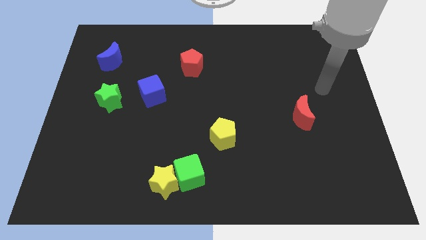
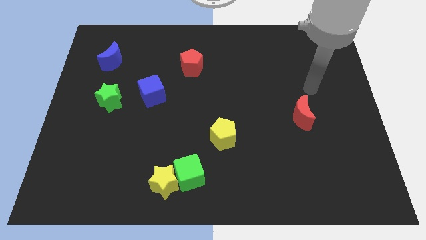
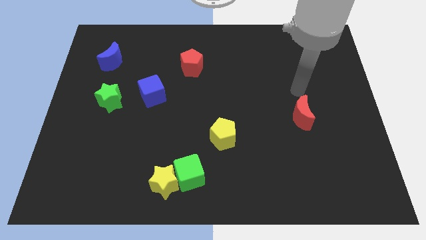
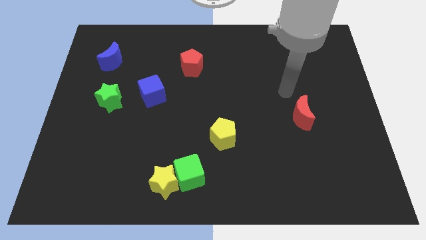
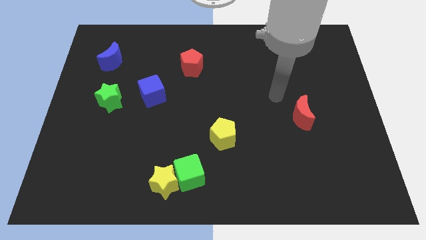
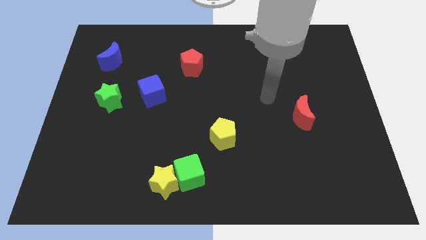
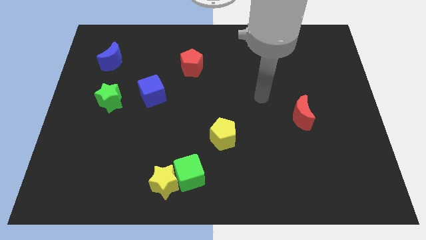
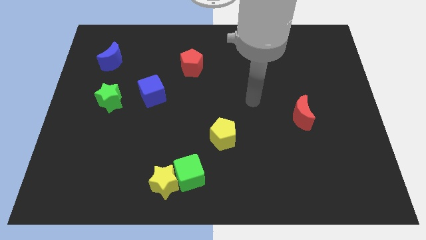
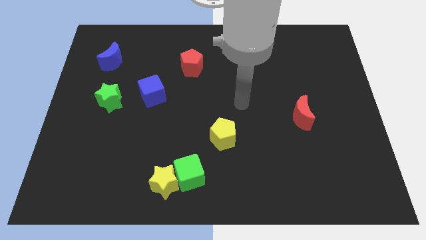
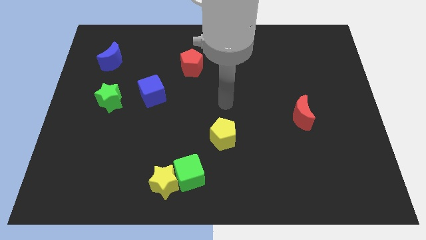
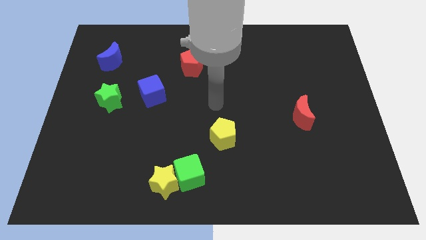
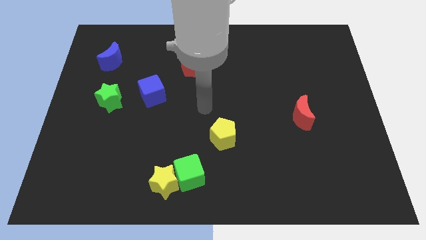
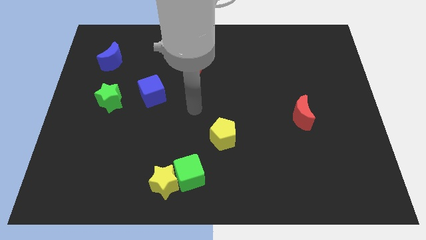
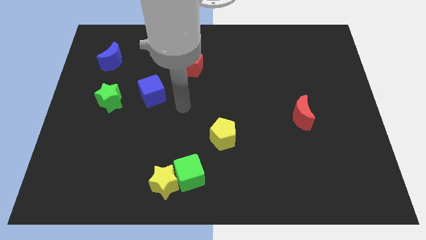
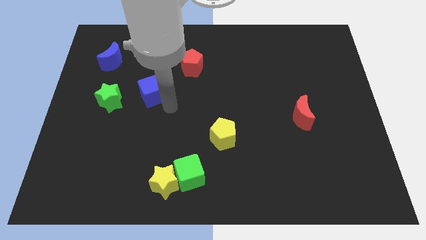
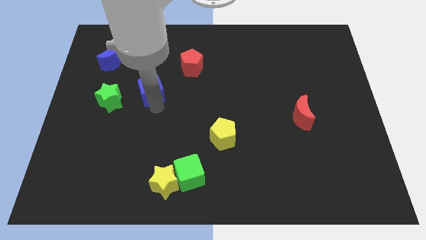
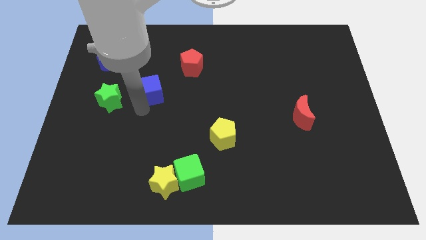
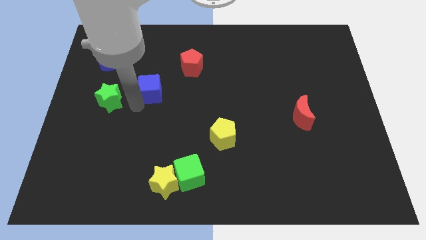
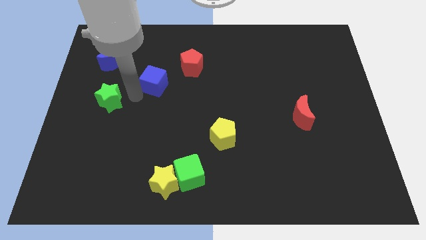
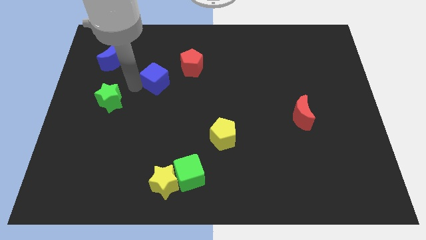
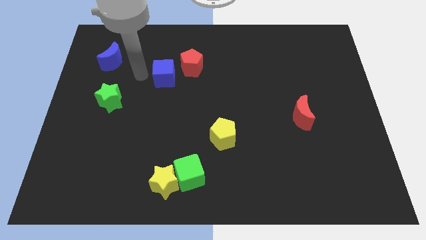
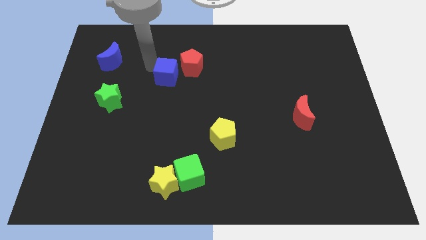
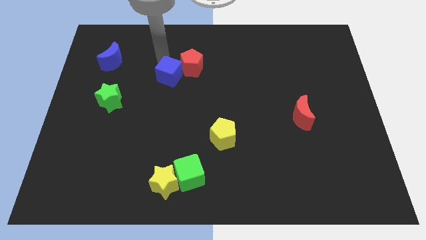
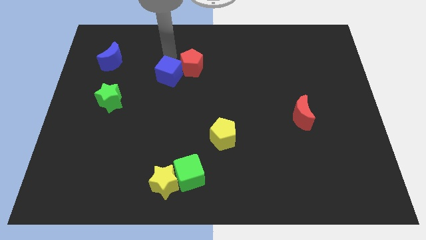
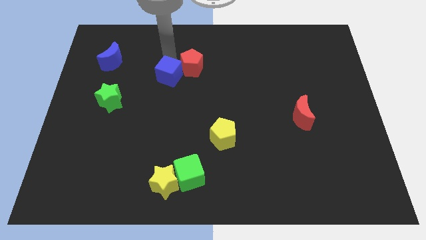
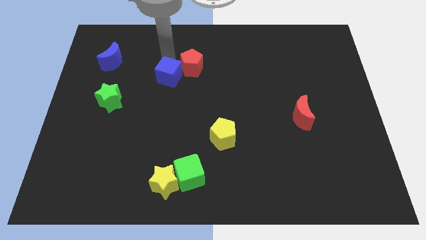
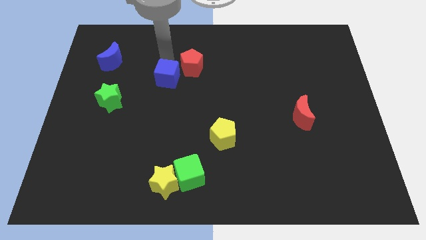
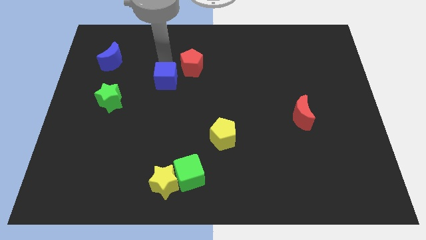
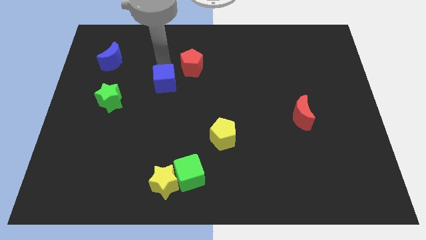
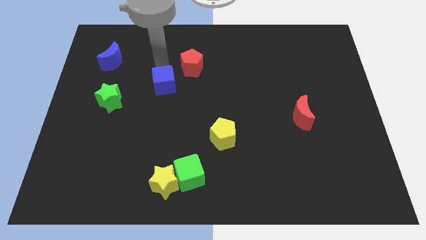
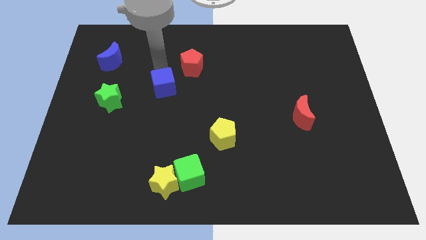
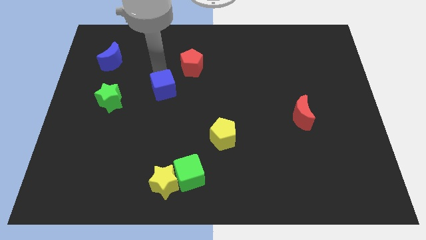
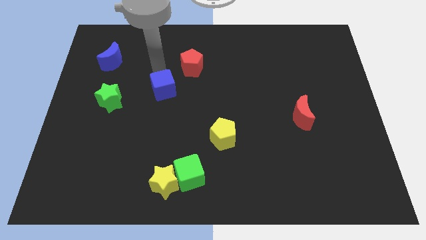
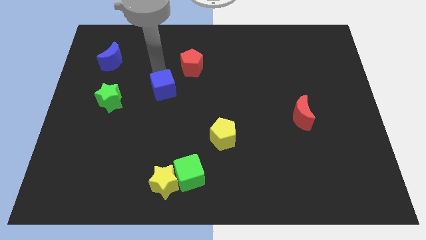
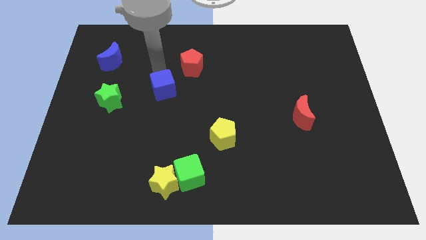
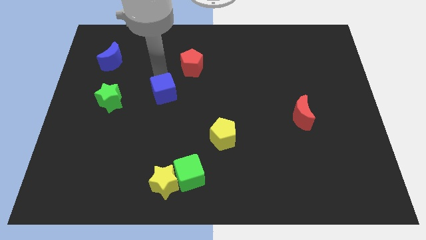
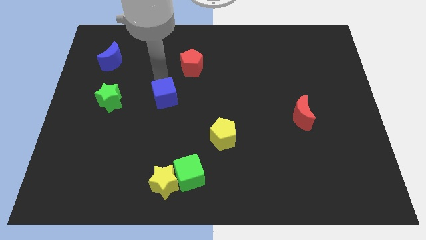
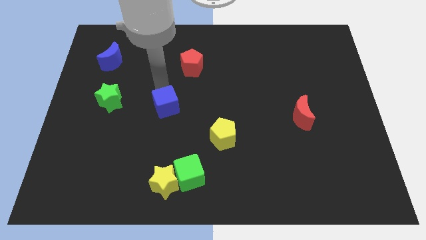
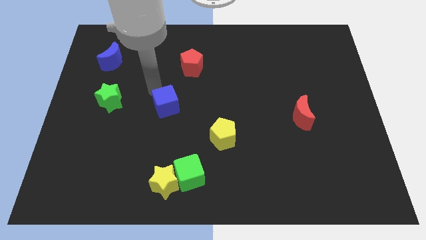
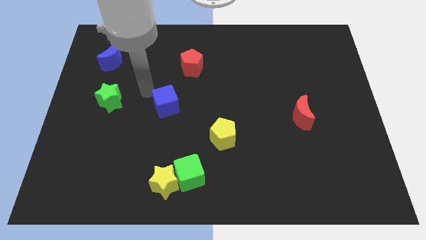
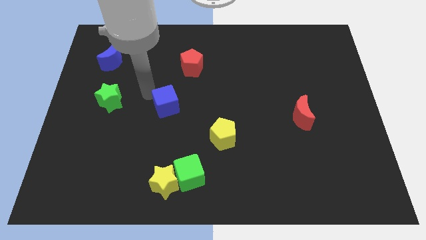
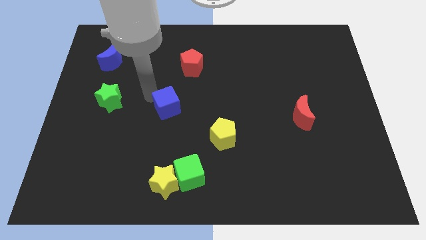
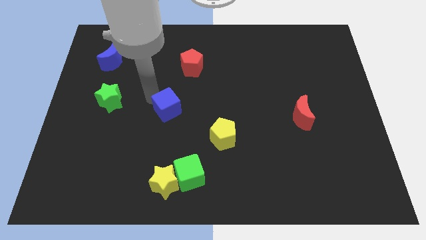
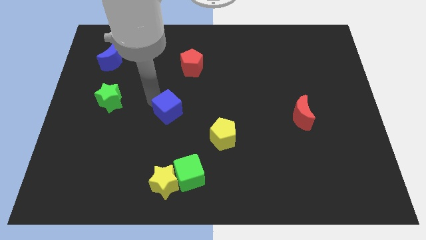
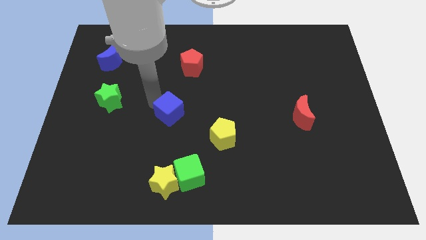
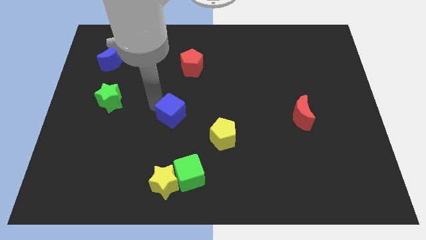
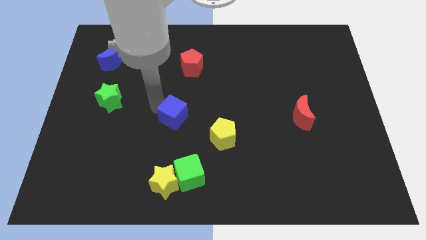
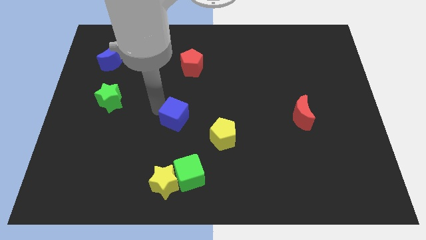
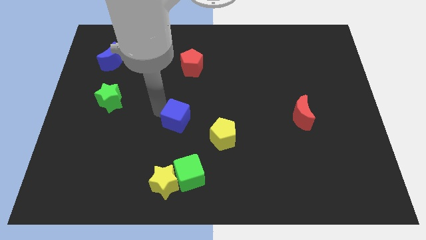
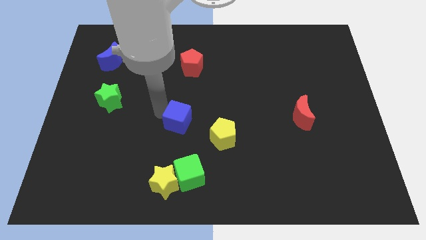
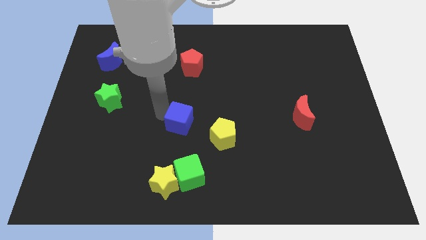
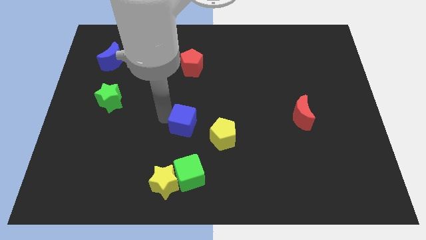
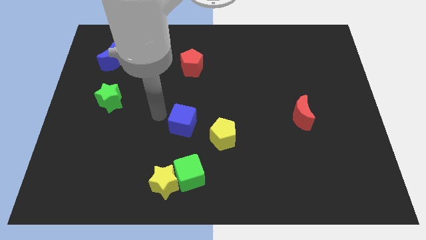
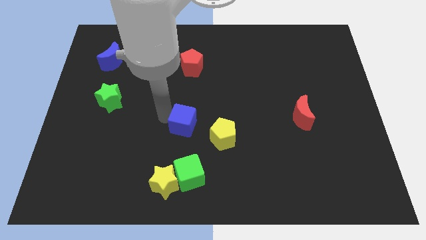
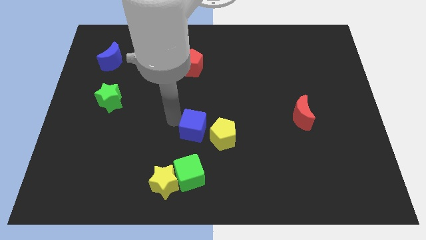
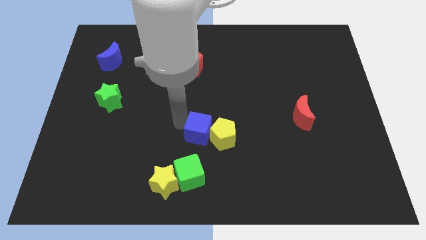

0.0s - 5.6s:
push the blue cube next to the yellow pentagon

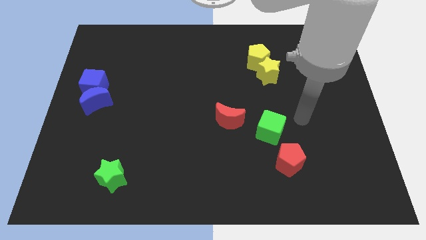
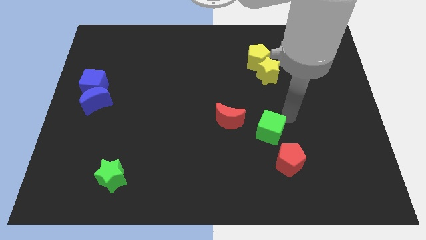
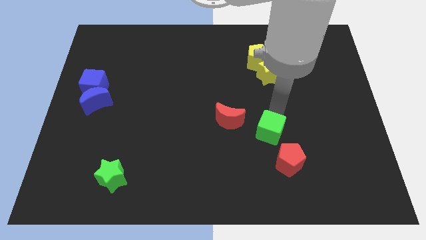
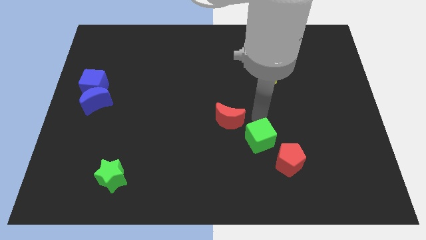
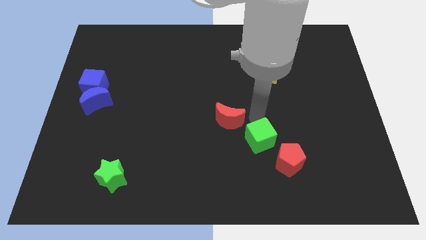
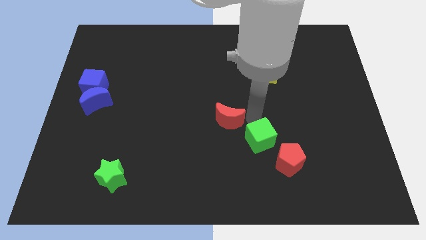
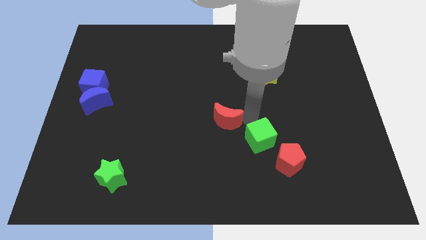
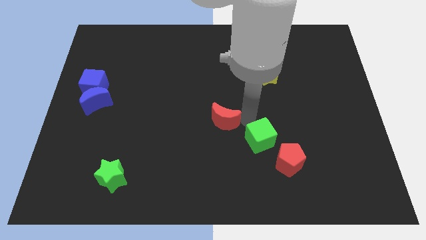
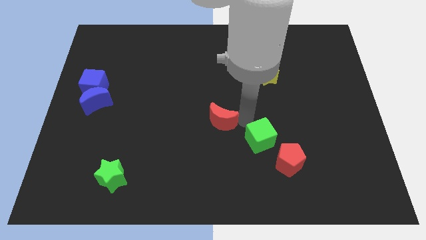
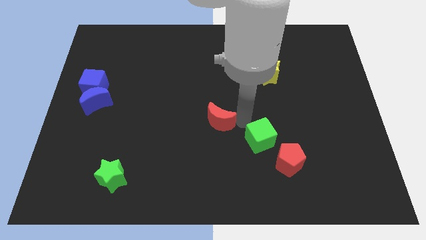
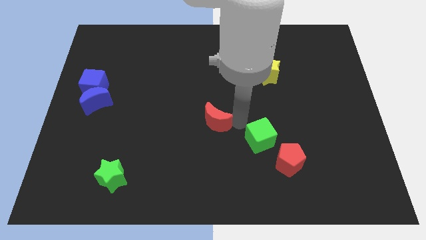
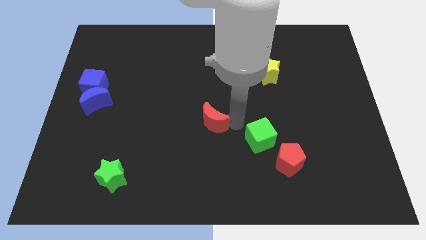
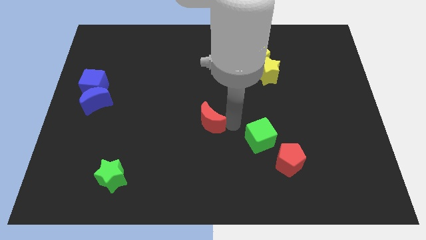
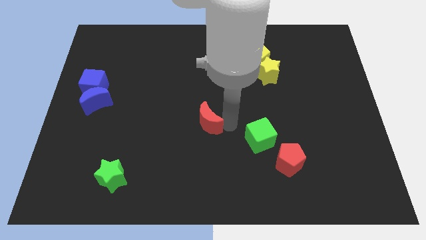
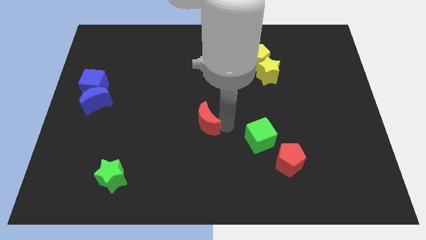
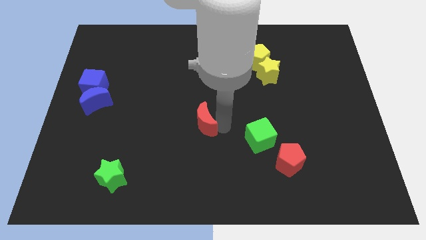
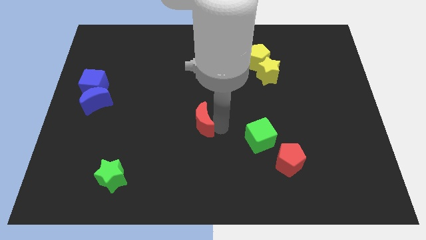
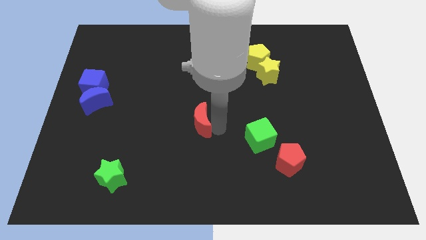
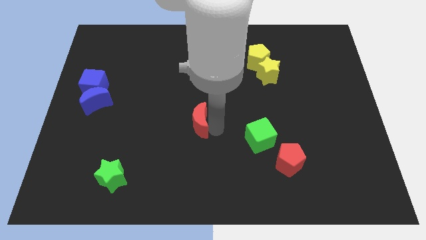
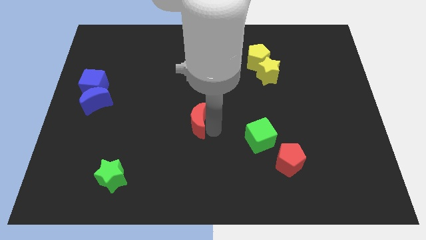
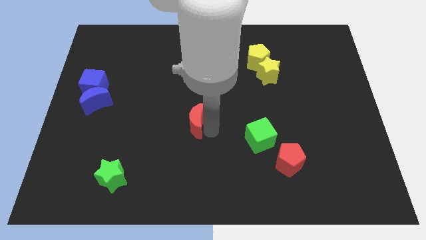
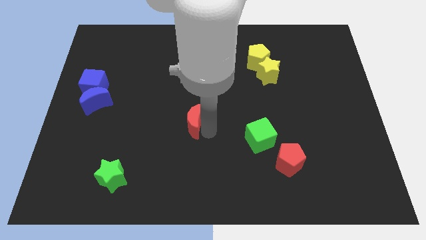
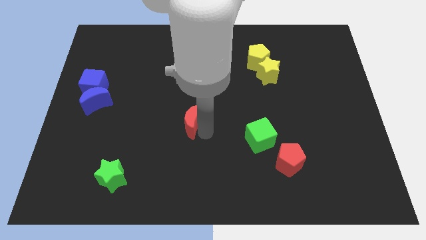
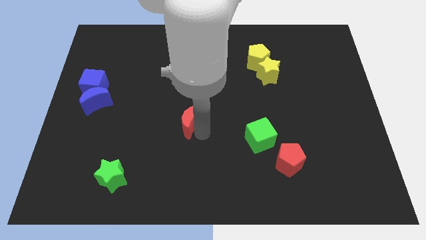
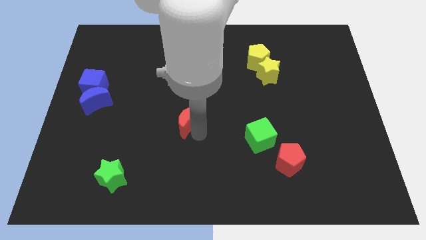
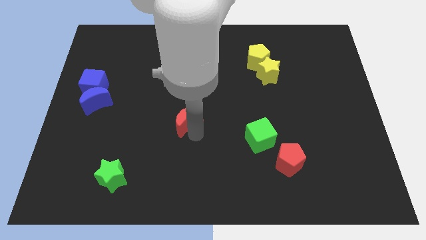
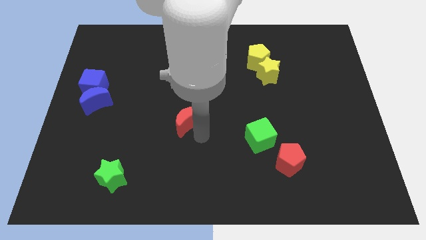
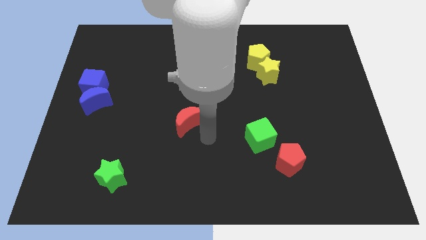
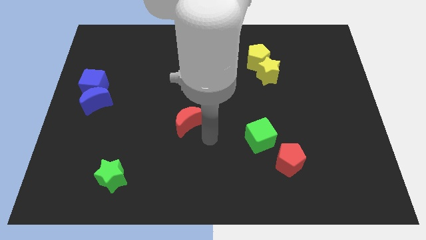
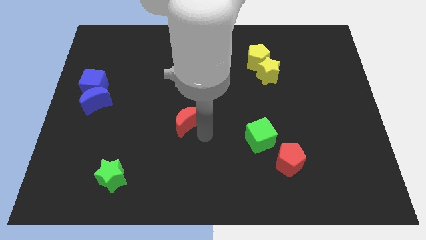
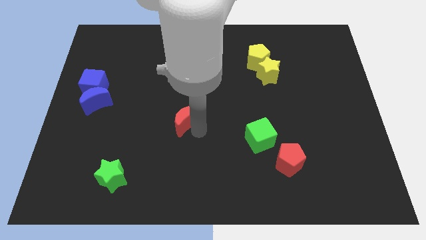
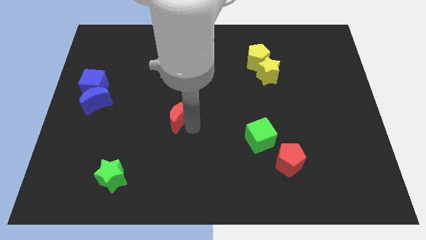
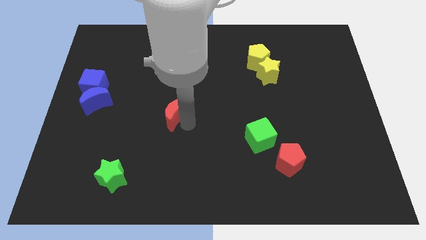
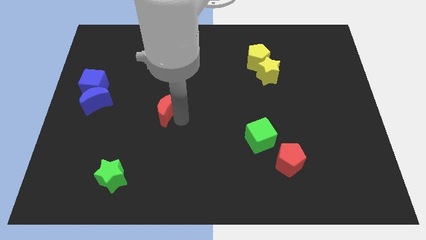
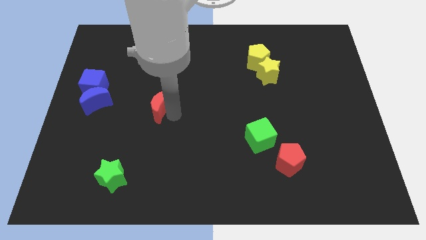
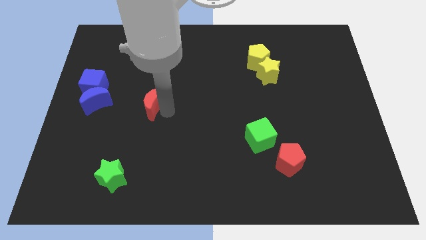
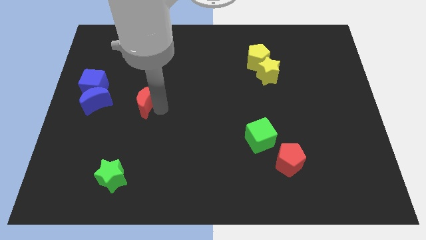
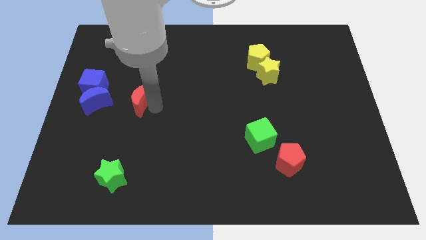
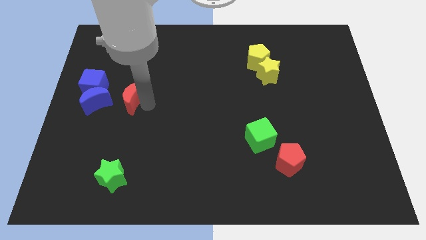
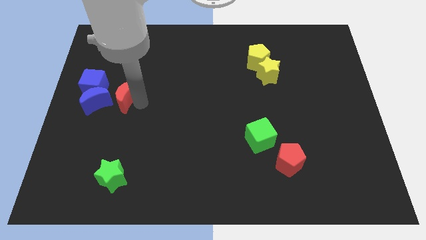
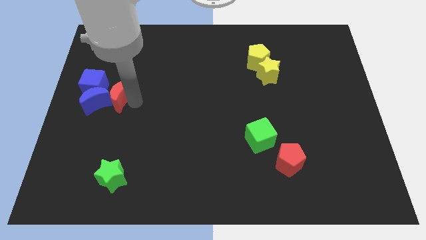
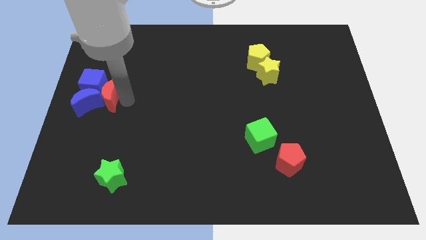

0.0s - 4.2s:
move the red moon close to the blue cube
